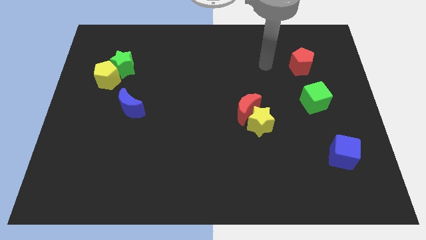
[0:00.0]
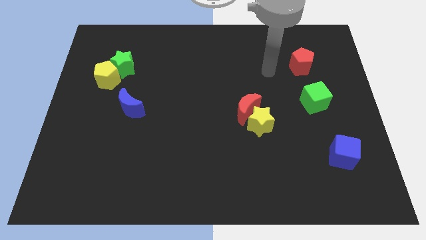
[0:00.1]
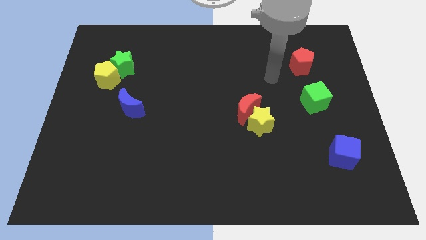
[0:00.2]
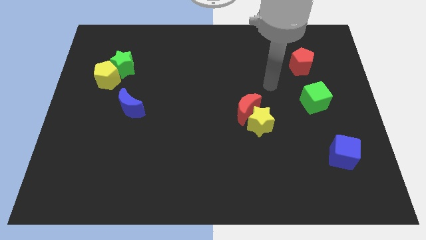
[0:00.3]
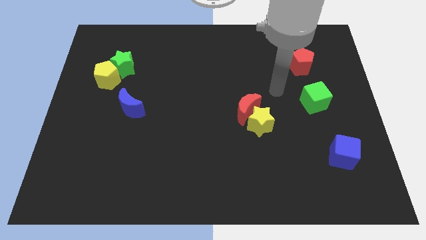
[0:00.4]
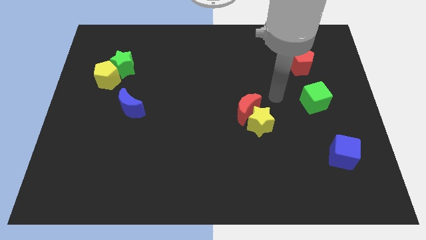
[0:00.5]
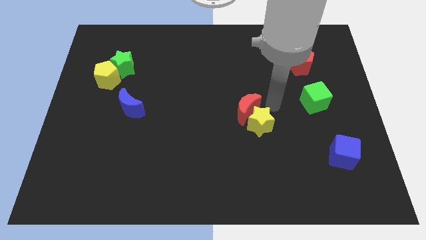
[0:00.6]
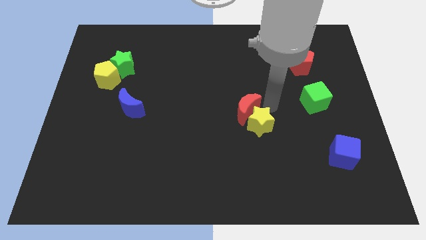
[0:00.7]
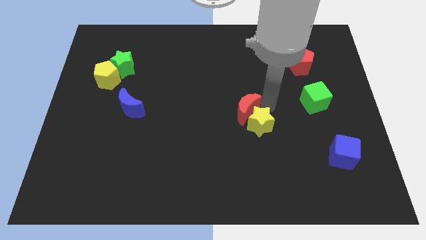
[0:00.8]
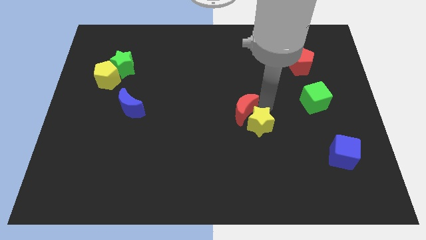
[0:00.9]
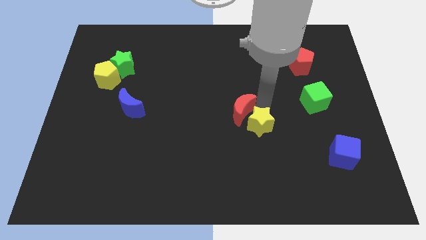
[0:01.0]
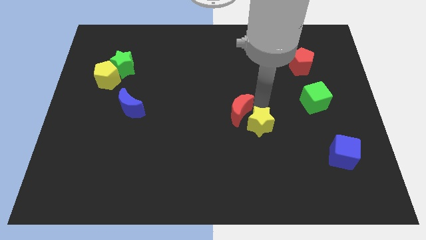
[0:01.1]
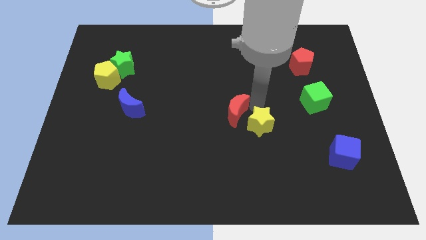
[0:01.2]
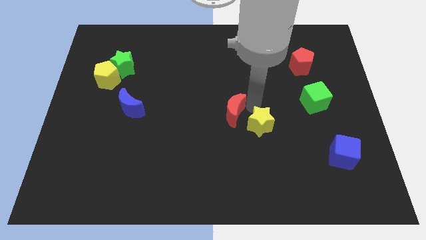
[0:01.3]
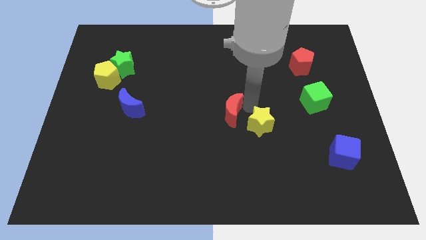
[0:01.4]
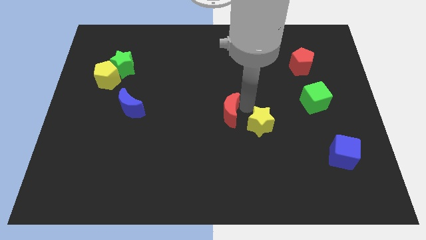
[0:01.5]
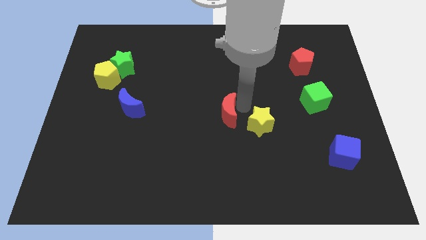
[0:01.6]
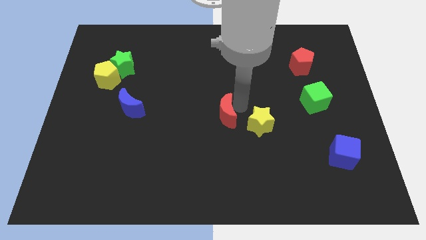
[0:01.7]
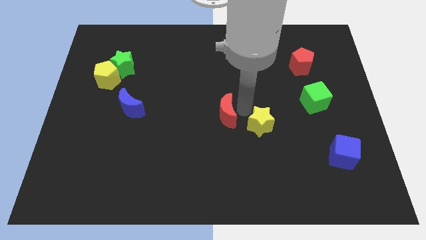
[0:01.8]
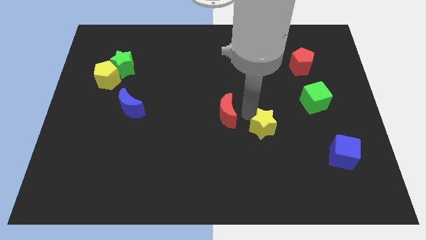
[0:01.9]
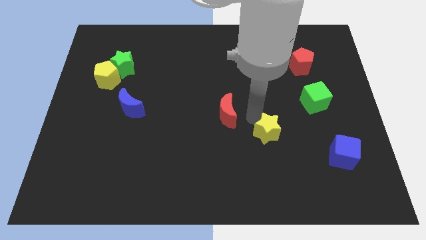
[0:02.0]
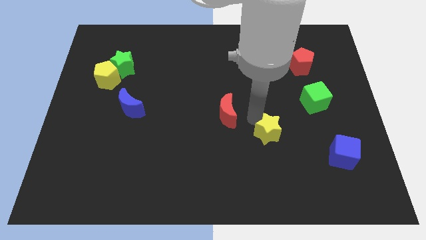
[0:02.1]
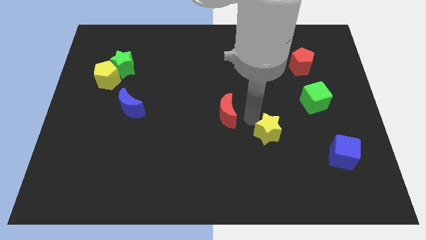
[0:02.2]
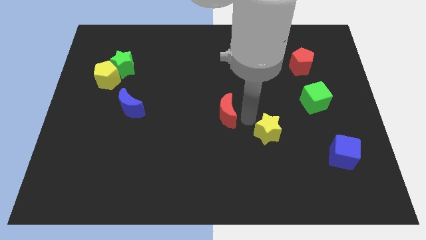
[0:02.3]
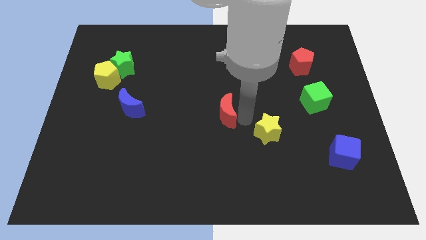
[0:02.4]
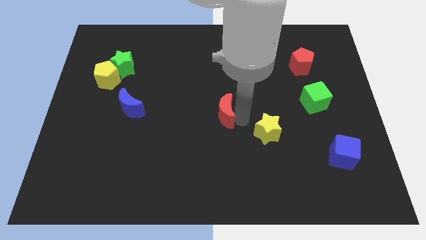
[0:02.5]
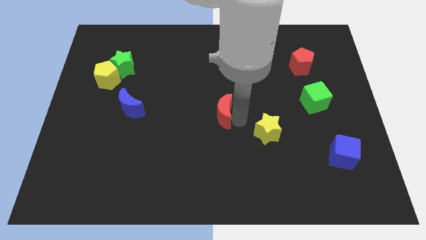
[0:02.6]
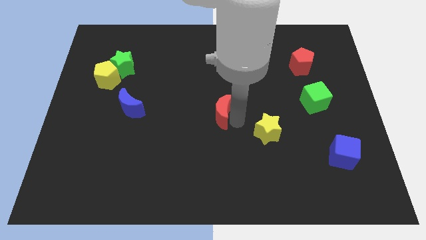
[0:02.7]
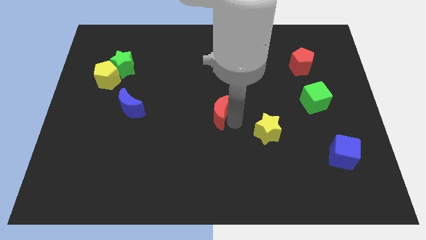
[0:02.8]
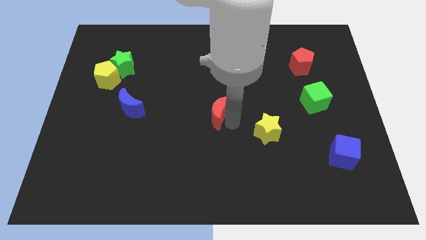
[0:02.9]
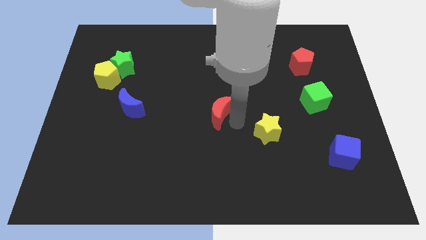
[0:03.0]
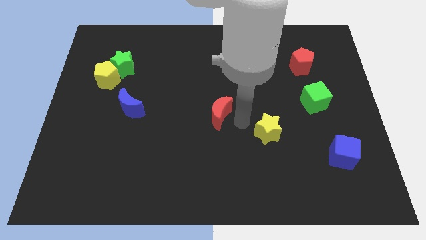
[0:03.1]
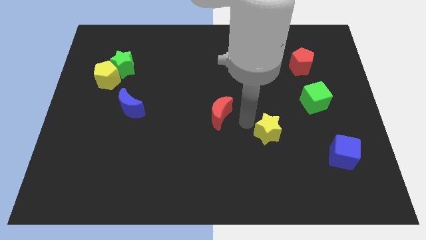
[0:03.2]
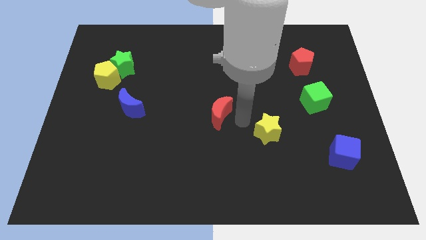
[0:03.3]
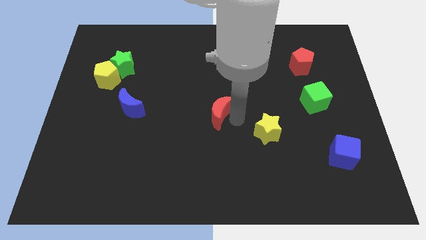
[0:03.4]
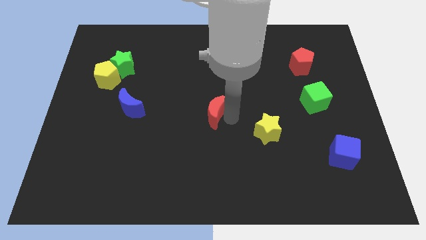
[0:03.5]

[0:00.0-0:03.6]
move the red moon to the left somewhat

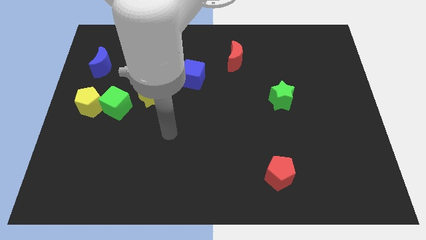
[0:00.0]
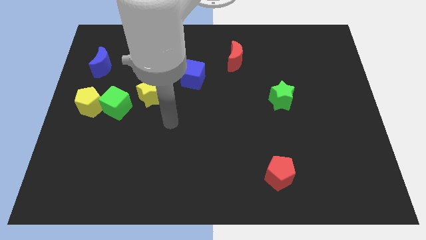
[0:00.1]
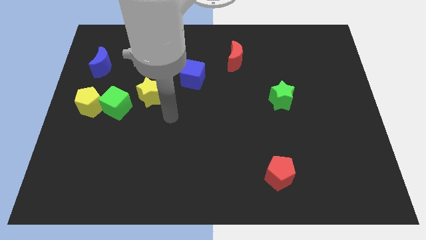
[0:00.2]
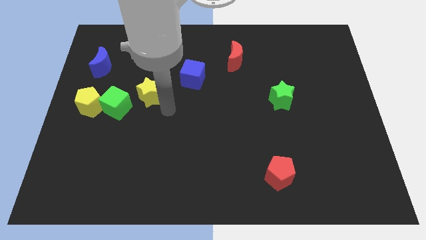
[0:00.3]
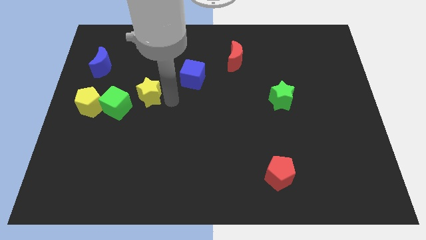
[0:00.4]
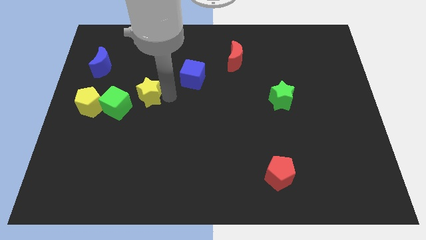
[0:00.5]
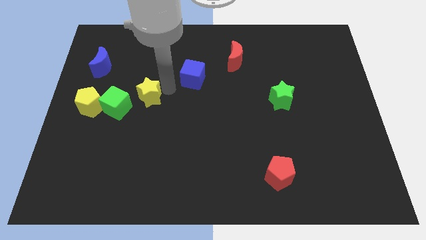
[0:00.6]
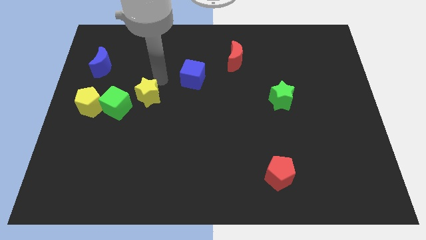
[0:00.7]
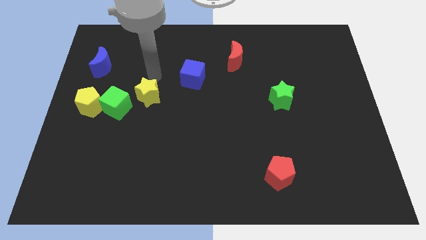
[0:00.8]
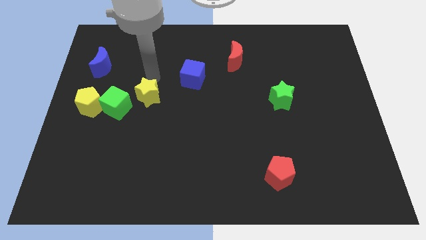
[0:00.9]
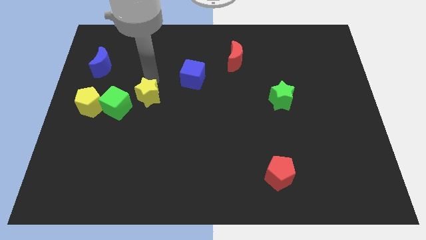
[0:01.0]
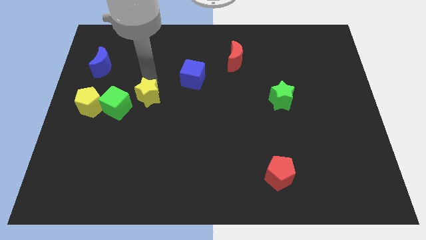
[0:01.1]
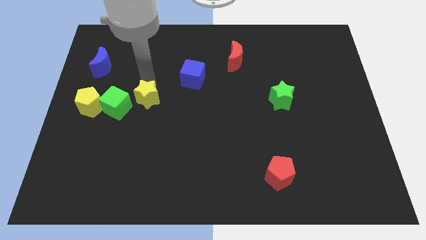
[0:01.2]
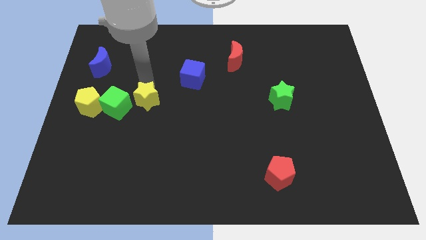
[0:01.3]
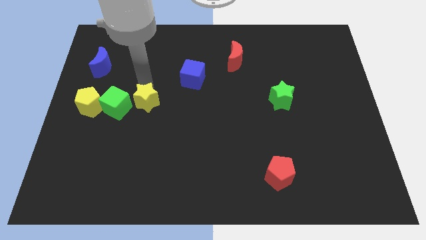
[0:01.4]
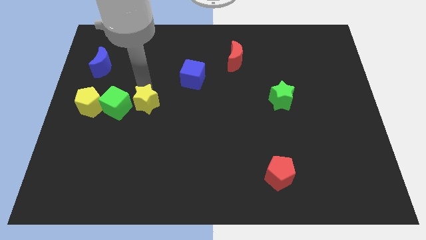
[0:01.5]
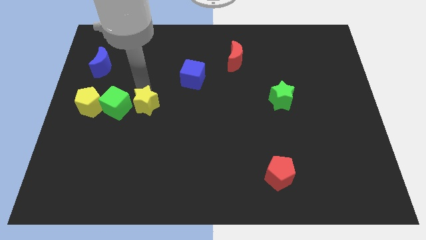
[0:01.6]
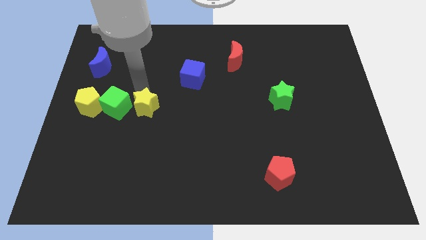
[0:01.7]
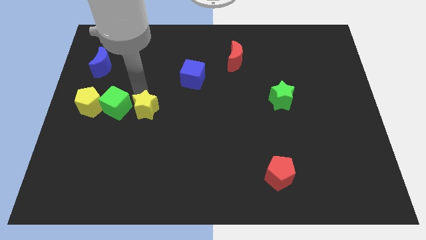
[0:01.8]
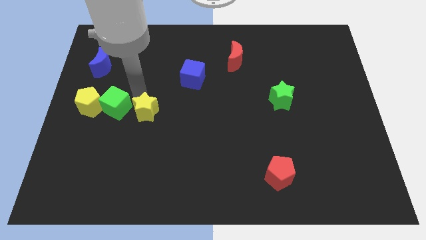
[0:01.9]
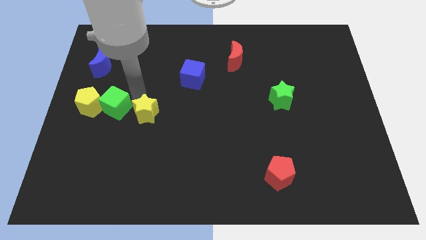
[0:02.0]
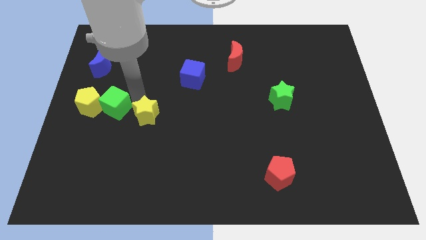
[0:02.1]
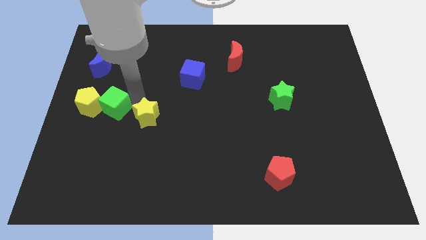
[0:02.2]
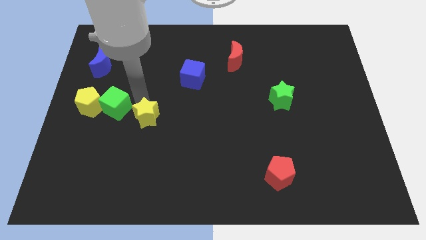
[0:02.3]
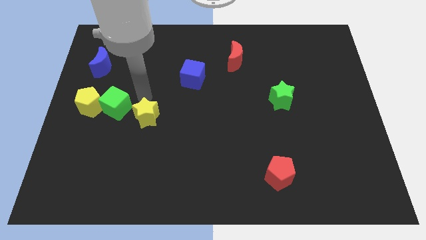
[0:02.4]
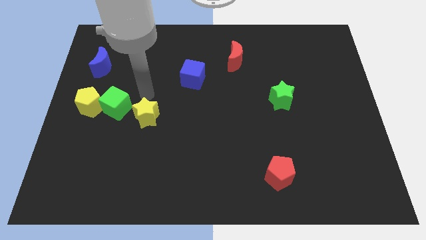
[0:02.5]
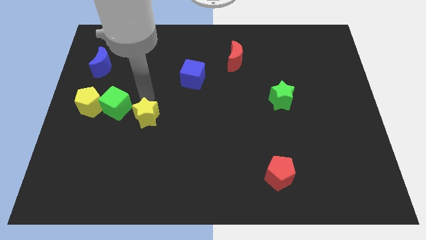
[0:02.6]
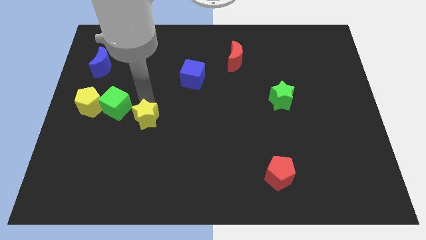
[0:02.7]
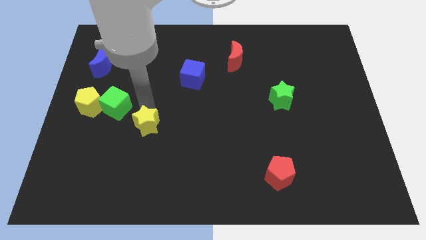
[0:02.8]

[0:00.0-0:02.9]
slide the yellow star downwards somewhat

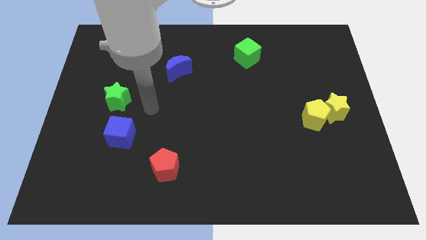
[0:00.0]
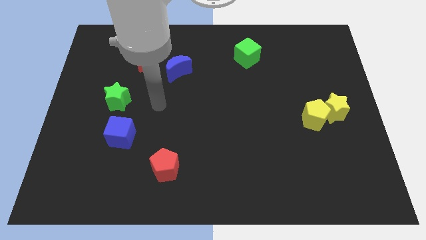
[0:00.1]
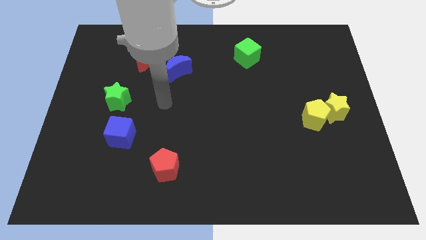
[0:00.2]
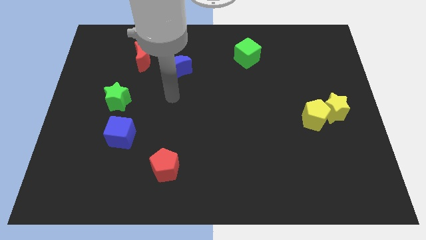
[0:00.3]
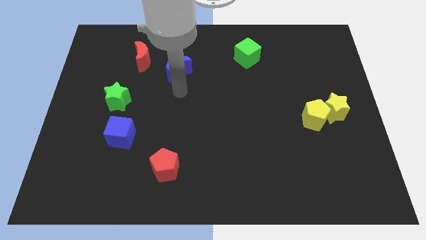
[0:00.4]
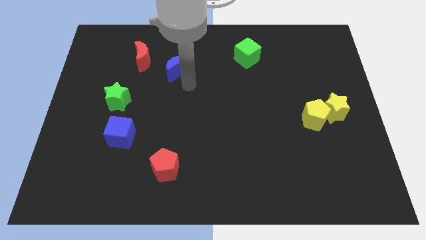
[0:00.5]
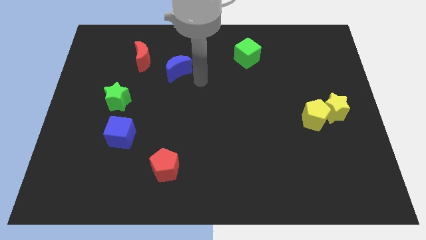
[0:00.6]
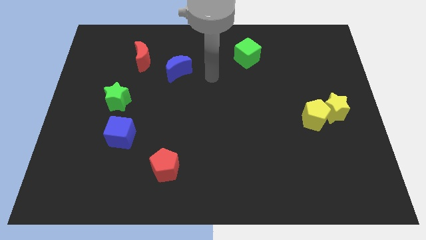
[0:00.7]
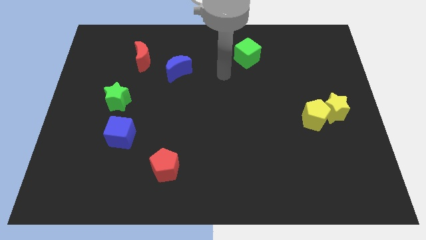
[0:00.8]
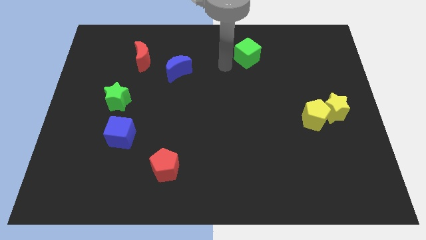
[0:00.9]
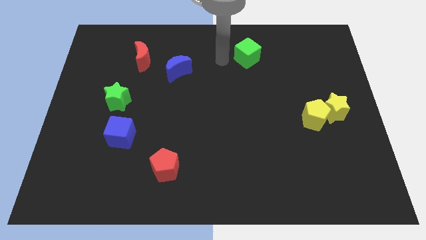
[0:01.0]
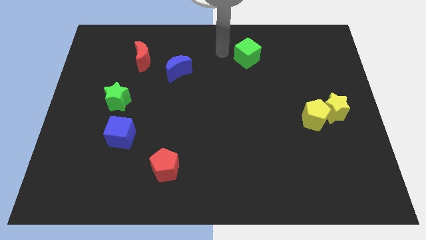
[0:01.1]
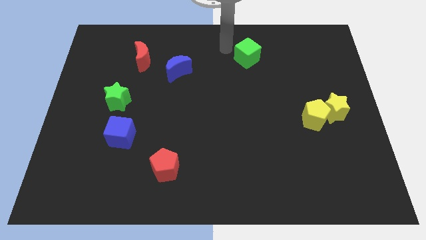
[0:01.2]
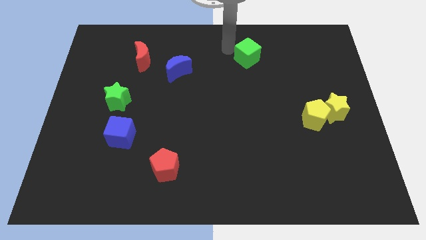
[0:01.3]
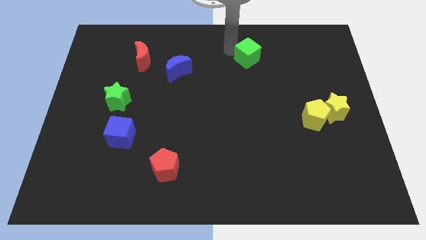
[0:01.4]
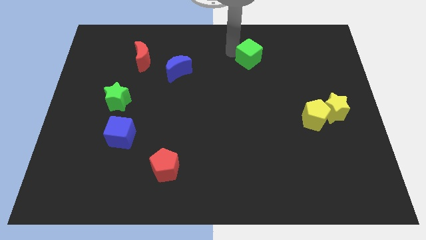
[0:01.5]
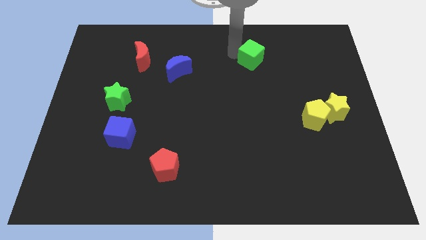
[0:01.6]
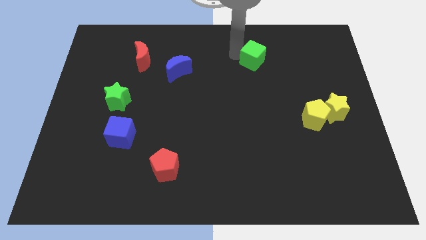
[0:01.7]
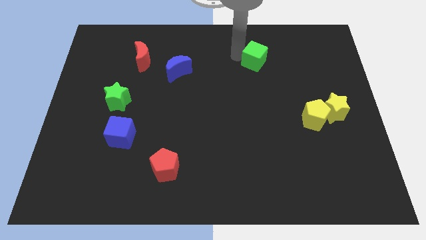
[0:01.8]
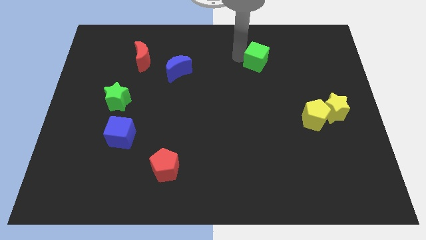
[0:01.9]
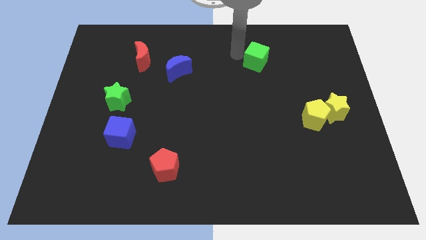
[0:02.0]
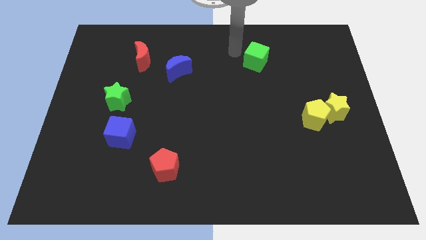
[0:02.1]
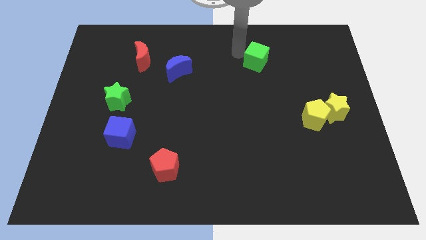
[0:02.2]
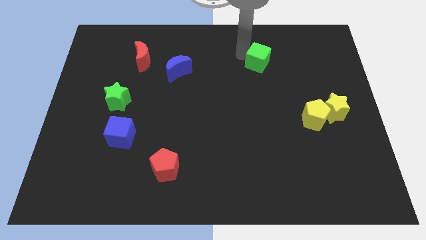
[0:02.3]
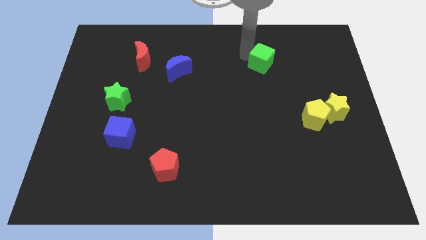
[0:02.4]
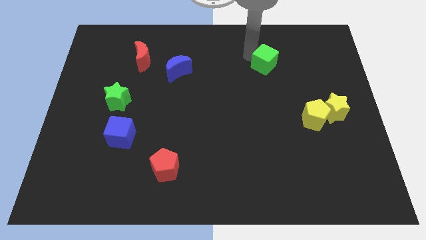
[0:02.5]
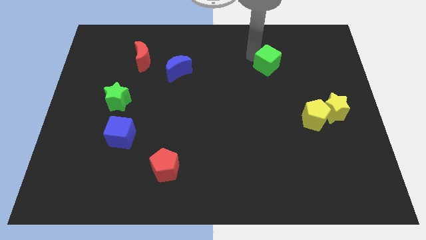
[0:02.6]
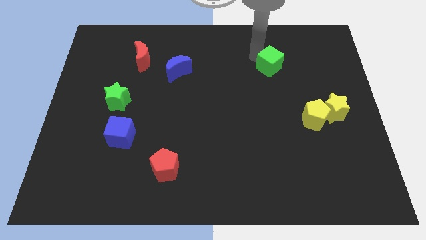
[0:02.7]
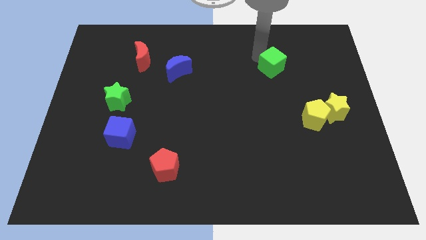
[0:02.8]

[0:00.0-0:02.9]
slightly slide the green cube downwards and then right
